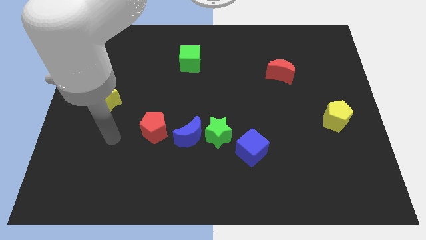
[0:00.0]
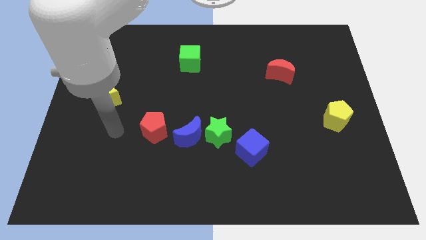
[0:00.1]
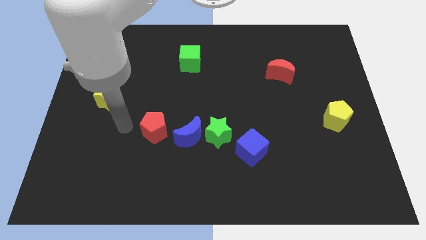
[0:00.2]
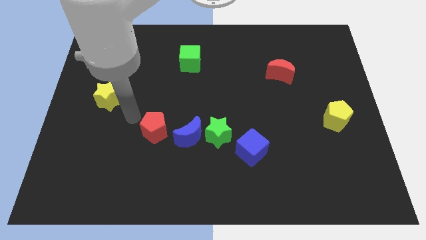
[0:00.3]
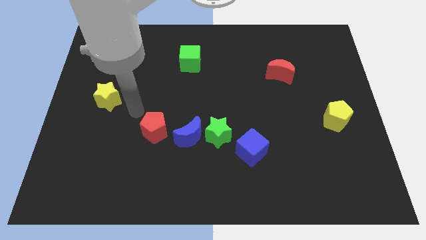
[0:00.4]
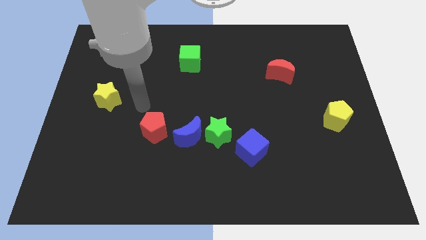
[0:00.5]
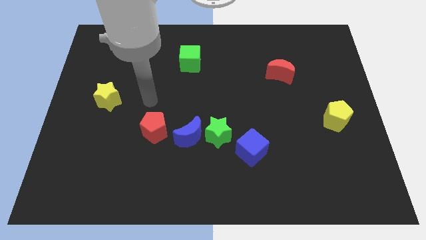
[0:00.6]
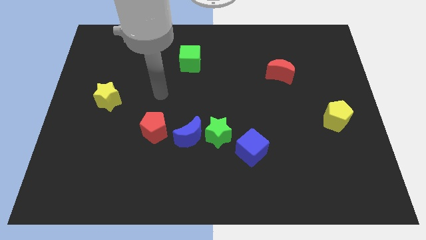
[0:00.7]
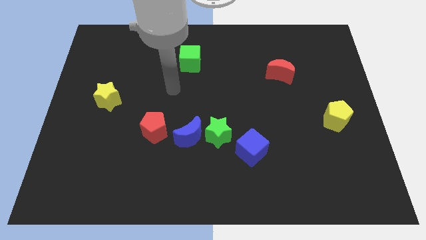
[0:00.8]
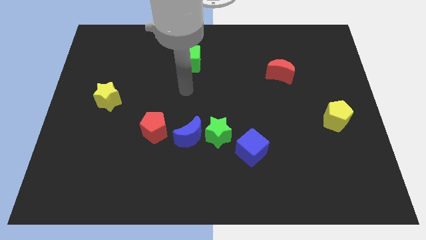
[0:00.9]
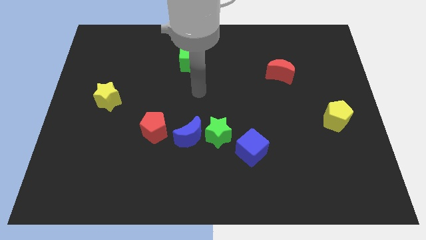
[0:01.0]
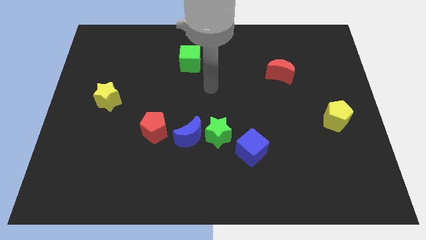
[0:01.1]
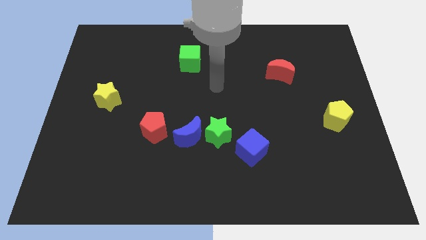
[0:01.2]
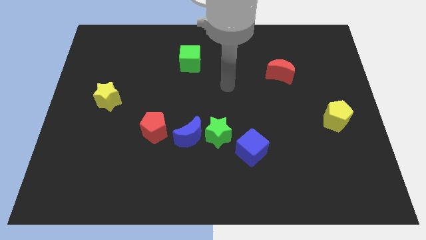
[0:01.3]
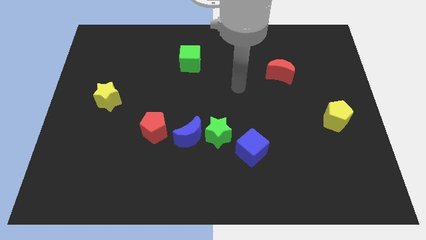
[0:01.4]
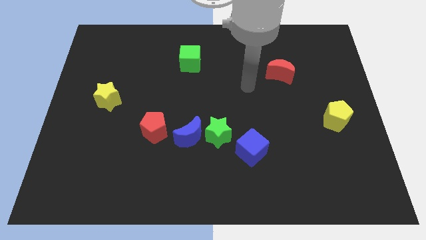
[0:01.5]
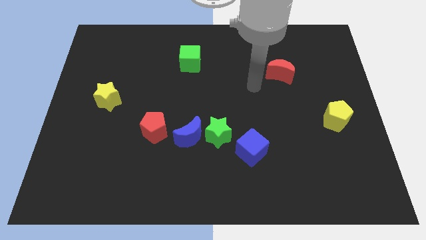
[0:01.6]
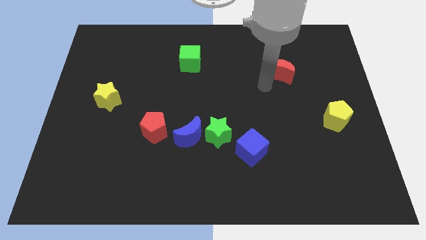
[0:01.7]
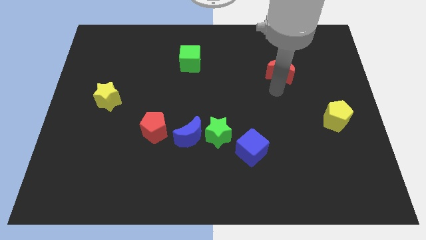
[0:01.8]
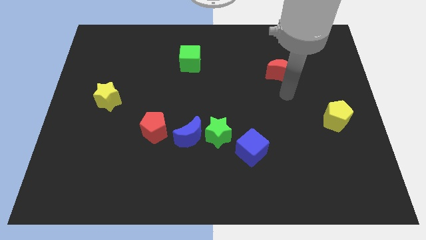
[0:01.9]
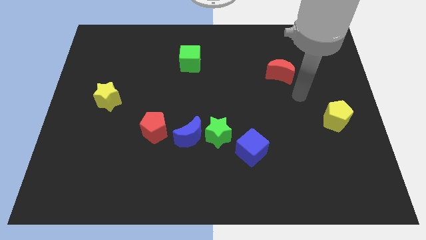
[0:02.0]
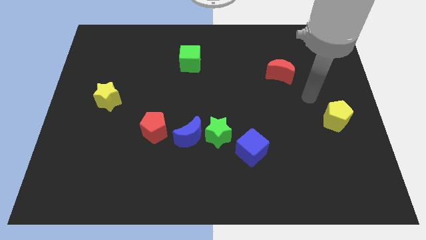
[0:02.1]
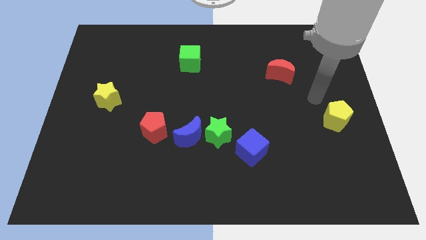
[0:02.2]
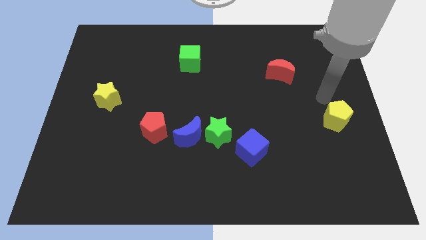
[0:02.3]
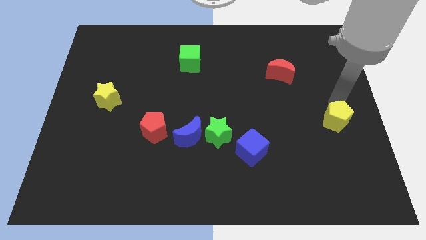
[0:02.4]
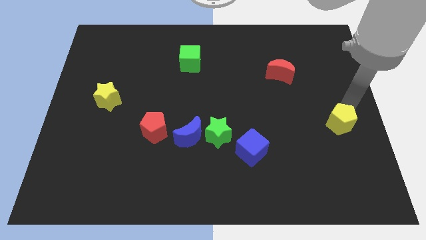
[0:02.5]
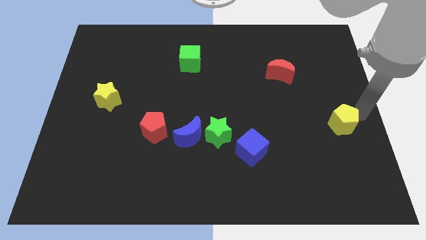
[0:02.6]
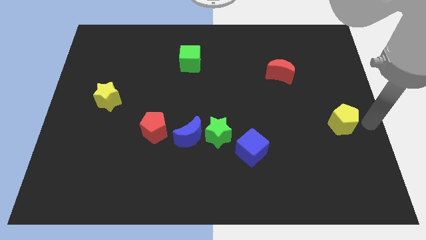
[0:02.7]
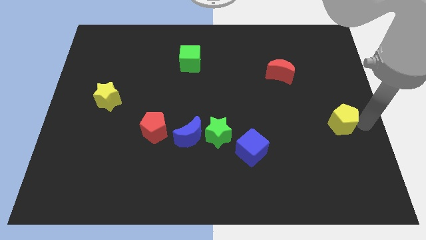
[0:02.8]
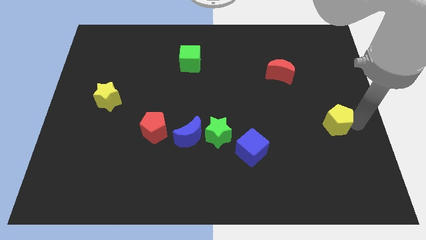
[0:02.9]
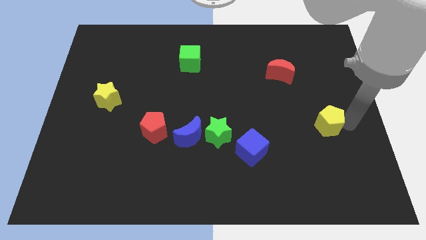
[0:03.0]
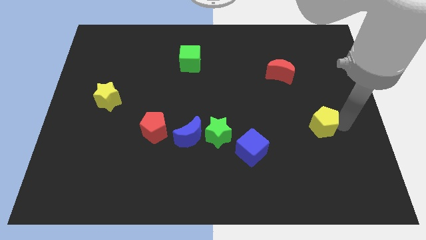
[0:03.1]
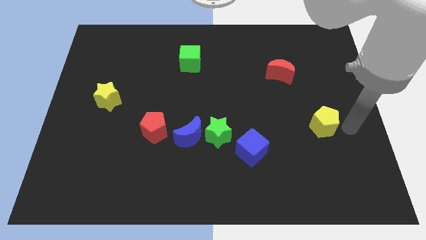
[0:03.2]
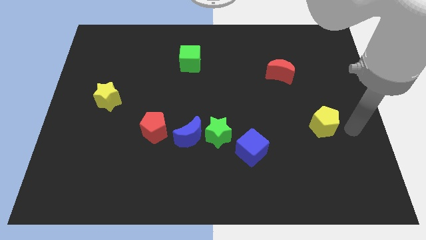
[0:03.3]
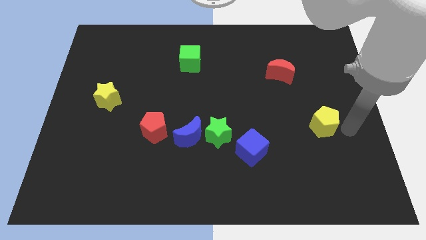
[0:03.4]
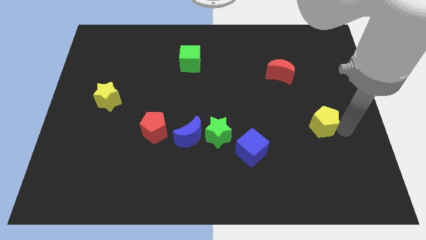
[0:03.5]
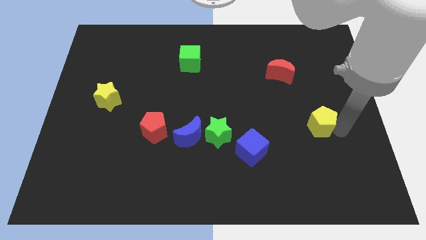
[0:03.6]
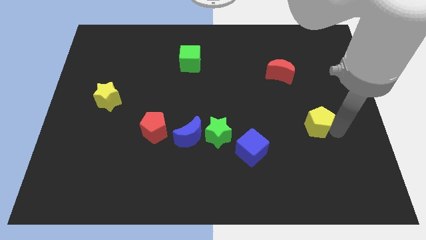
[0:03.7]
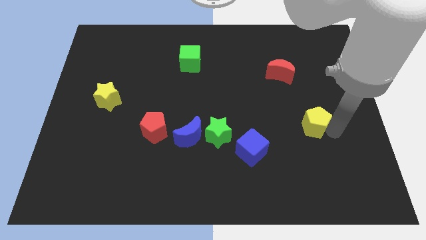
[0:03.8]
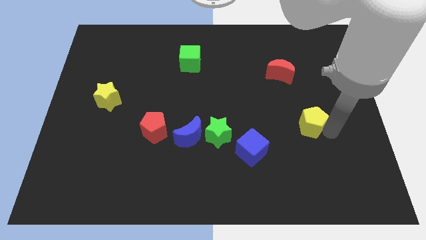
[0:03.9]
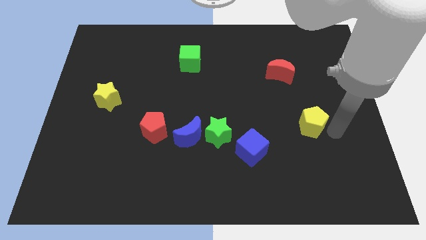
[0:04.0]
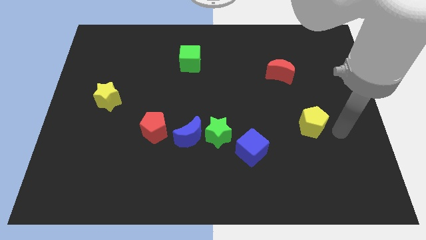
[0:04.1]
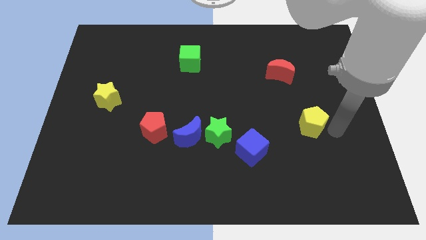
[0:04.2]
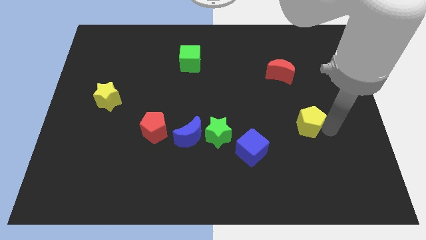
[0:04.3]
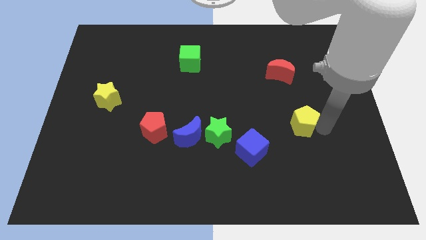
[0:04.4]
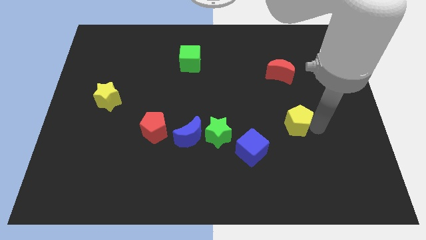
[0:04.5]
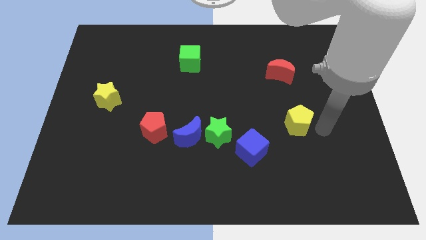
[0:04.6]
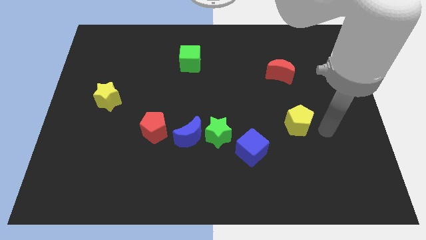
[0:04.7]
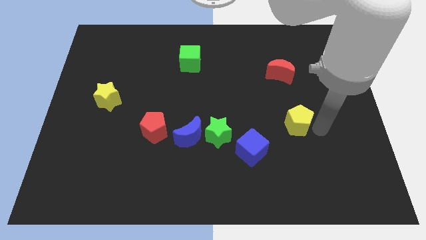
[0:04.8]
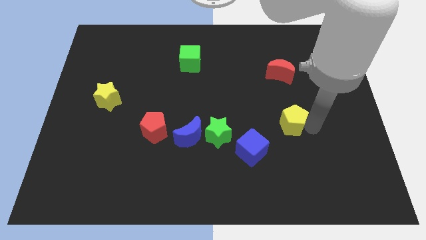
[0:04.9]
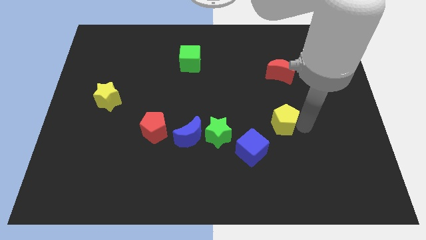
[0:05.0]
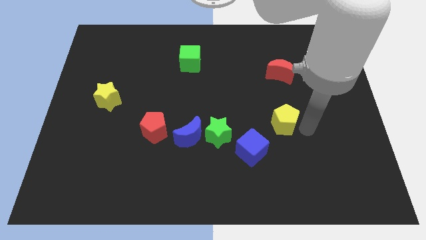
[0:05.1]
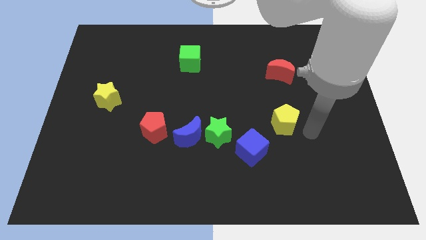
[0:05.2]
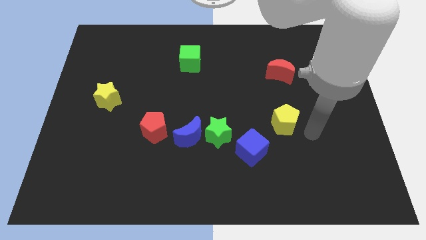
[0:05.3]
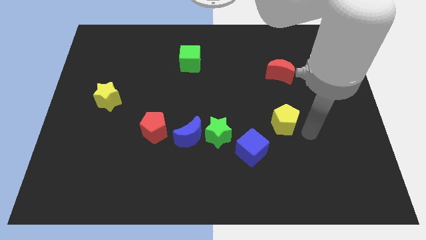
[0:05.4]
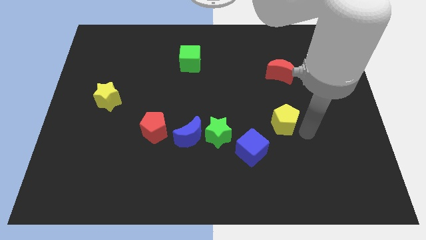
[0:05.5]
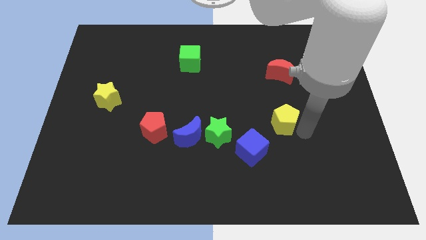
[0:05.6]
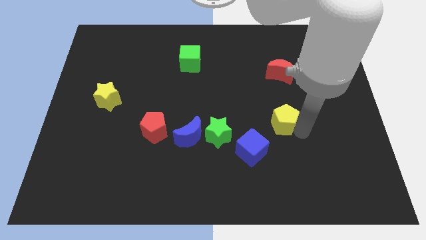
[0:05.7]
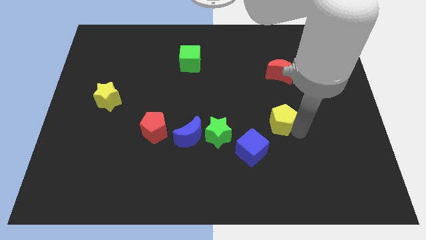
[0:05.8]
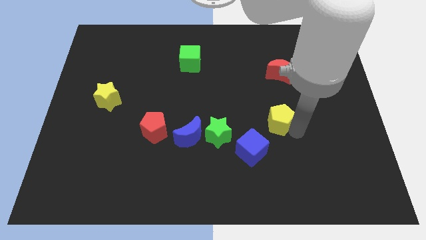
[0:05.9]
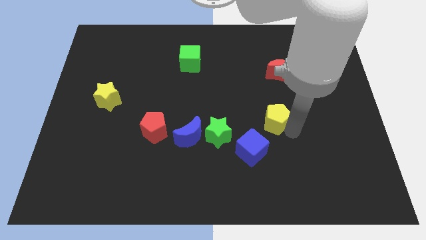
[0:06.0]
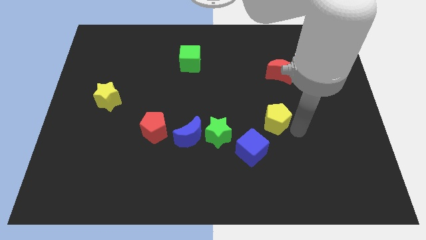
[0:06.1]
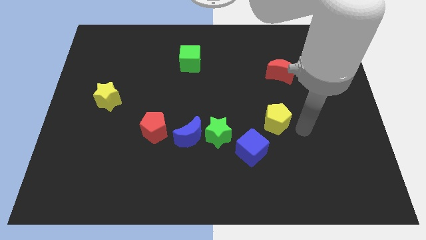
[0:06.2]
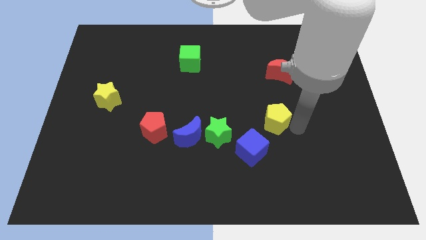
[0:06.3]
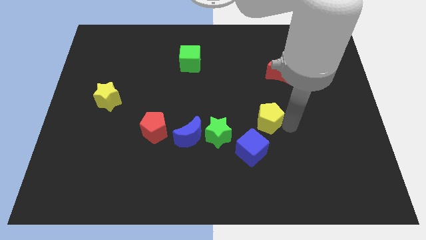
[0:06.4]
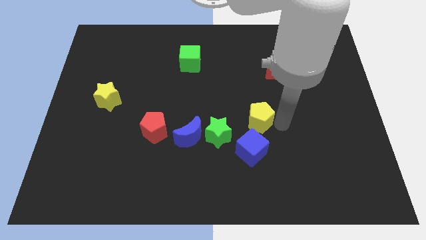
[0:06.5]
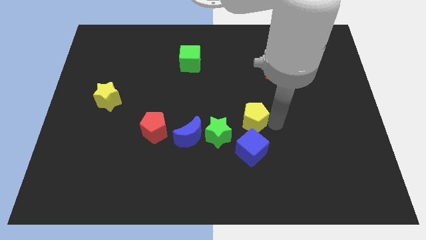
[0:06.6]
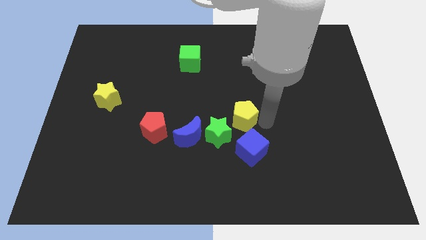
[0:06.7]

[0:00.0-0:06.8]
move the yellow pentagon left

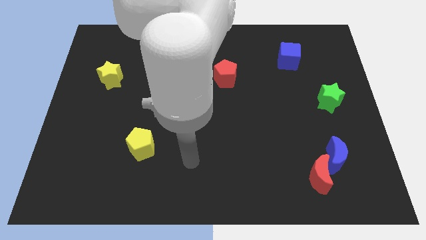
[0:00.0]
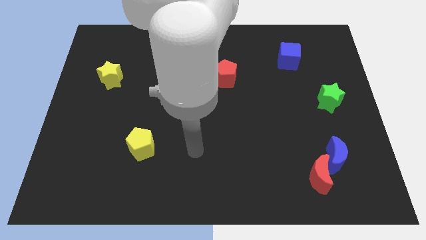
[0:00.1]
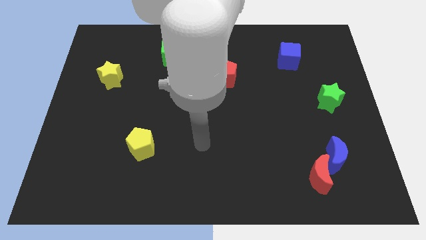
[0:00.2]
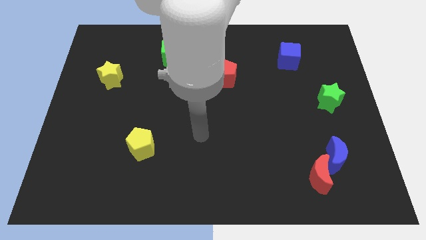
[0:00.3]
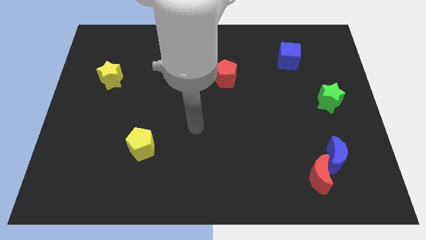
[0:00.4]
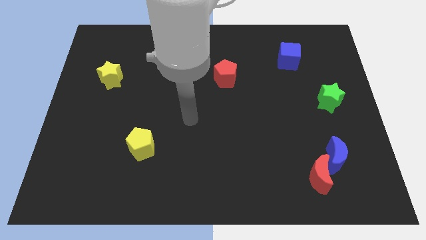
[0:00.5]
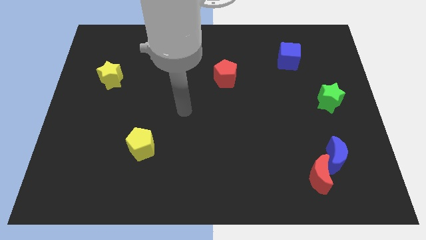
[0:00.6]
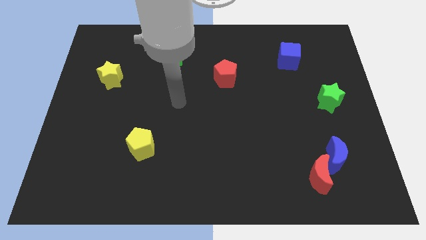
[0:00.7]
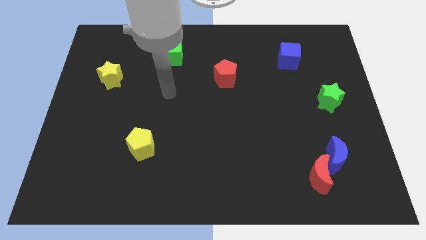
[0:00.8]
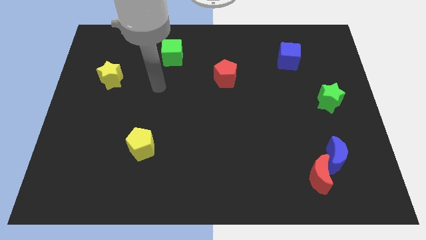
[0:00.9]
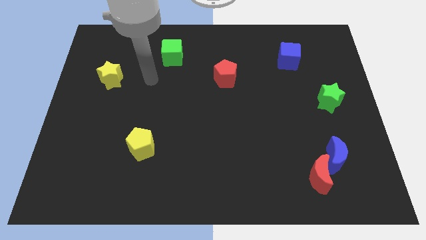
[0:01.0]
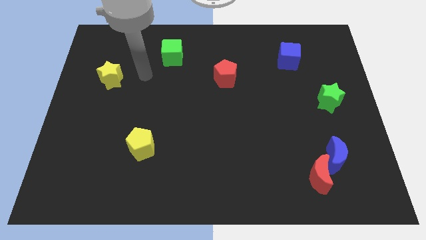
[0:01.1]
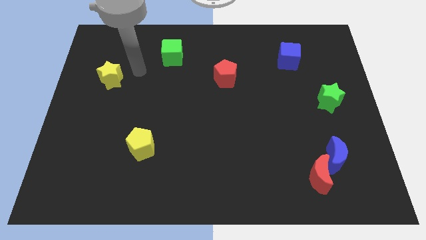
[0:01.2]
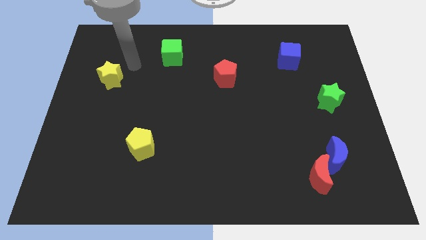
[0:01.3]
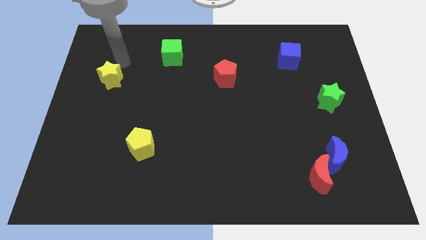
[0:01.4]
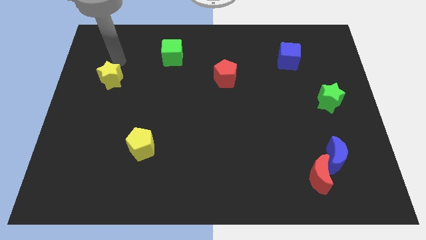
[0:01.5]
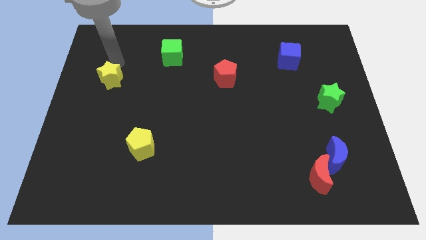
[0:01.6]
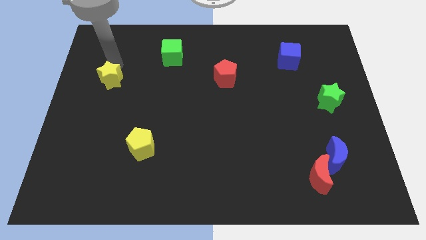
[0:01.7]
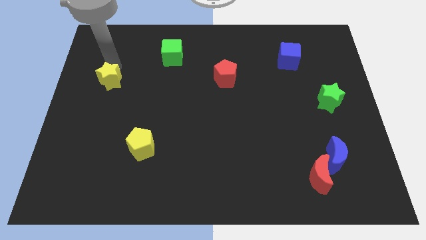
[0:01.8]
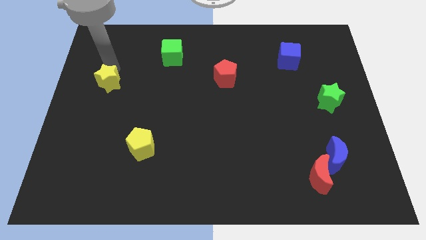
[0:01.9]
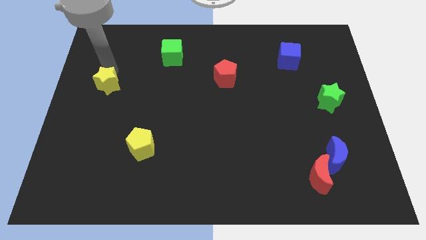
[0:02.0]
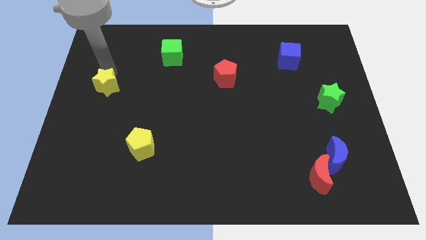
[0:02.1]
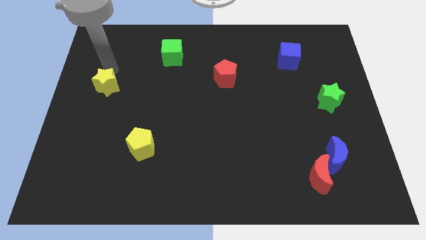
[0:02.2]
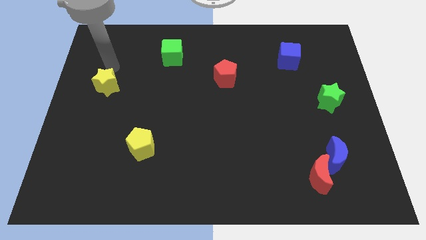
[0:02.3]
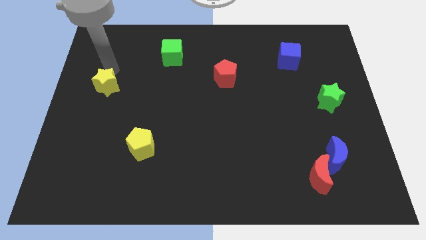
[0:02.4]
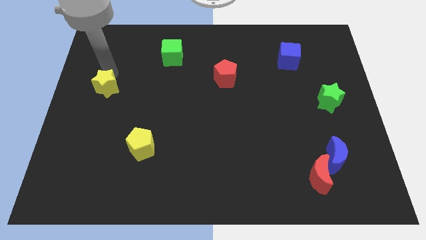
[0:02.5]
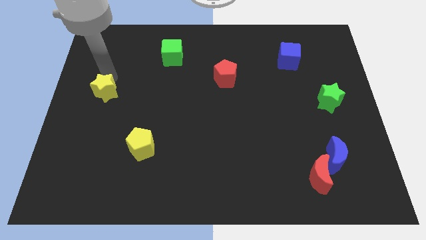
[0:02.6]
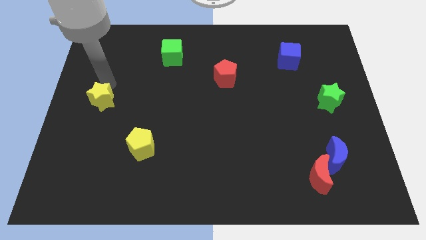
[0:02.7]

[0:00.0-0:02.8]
slide the yellow star slightly downwards
